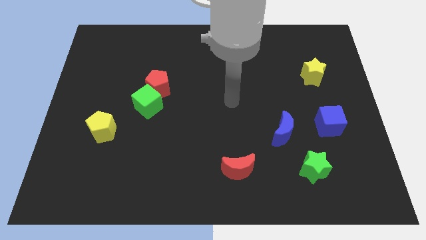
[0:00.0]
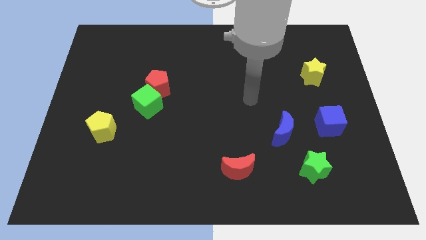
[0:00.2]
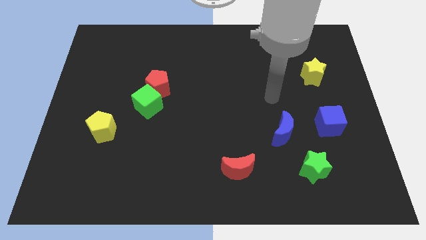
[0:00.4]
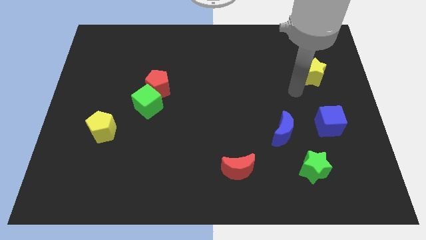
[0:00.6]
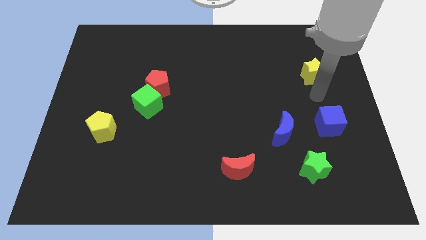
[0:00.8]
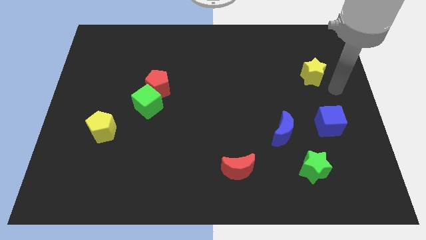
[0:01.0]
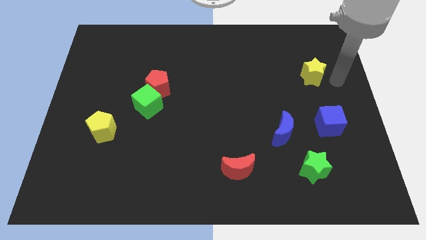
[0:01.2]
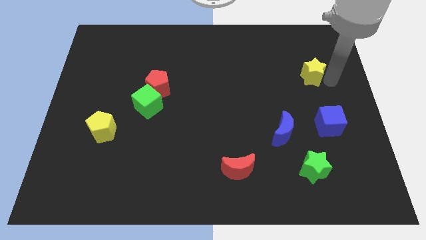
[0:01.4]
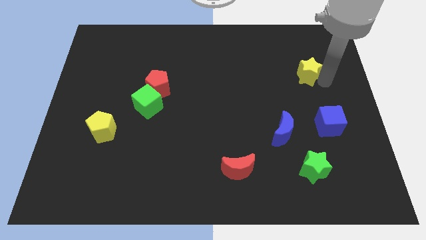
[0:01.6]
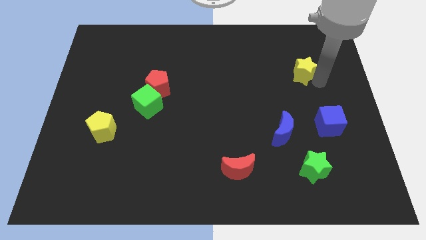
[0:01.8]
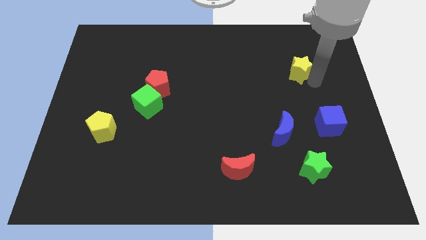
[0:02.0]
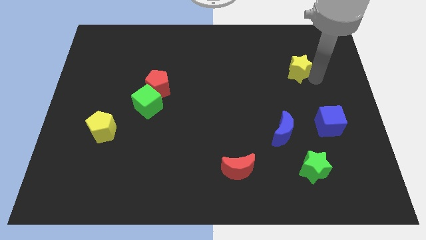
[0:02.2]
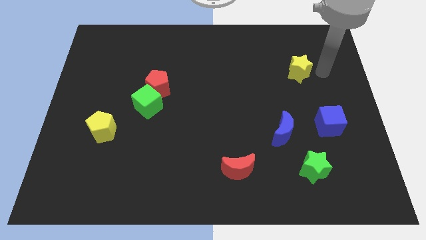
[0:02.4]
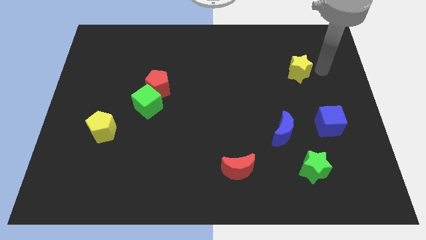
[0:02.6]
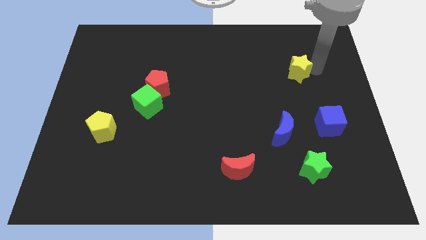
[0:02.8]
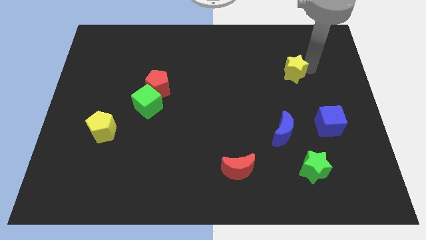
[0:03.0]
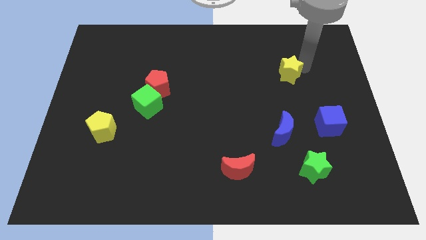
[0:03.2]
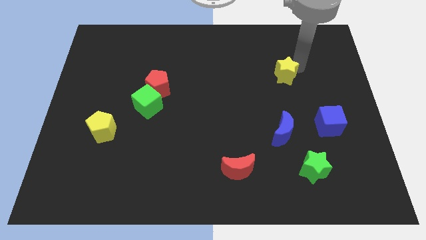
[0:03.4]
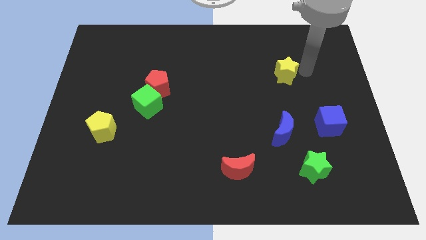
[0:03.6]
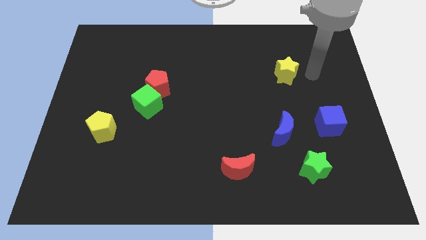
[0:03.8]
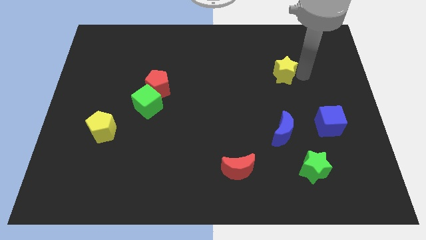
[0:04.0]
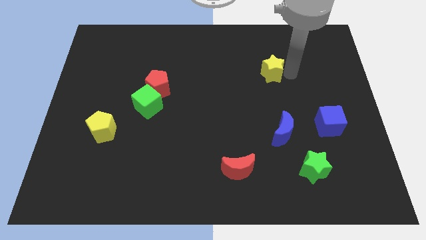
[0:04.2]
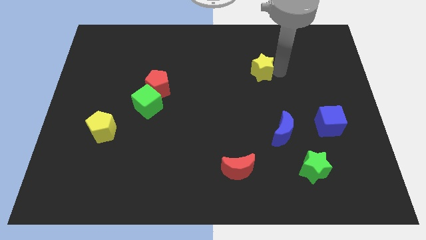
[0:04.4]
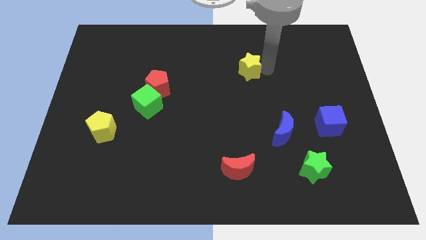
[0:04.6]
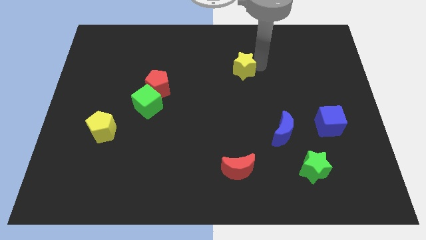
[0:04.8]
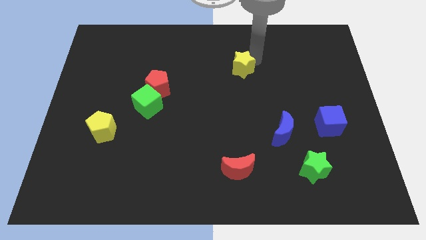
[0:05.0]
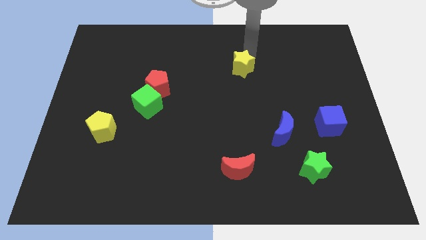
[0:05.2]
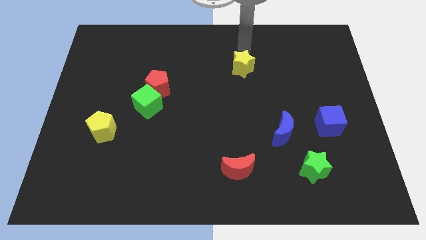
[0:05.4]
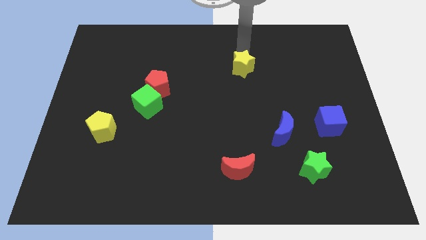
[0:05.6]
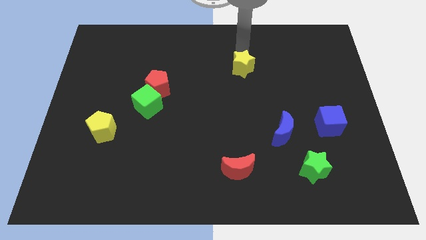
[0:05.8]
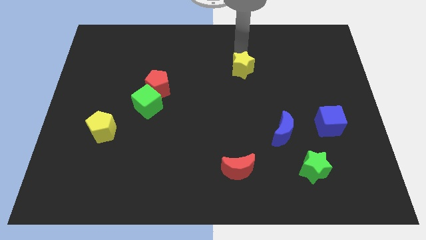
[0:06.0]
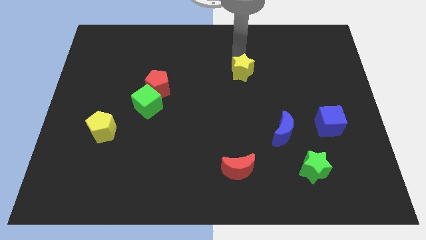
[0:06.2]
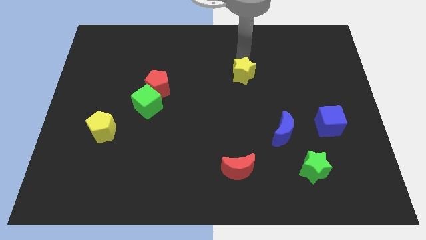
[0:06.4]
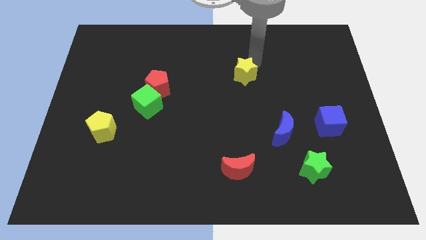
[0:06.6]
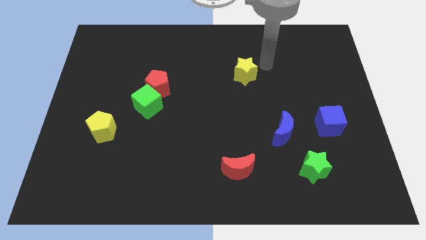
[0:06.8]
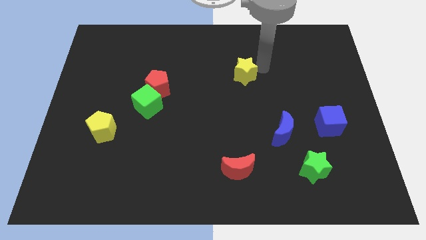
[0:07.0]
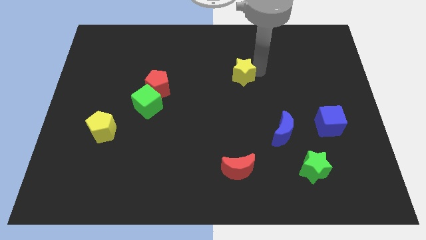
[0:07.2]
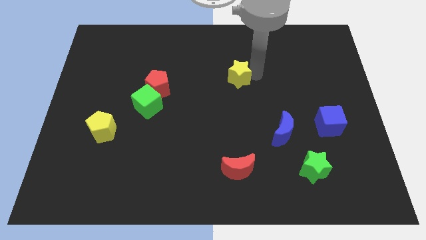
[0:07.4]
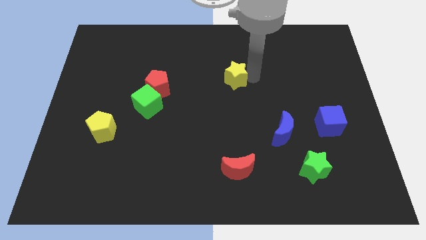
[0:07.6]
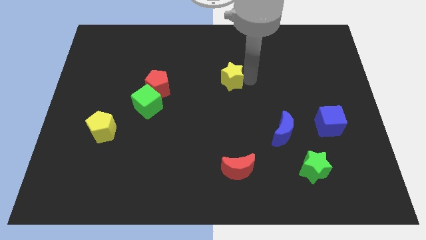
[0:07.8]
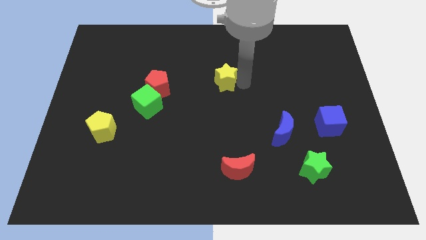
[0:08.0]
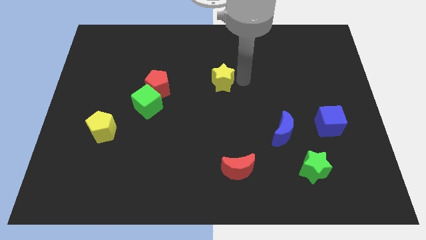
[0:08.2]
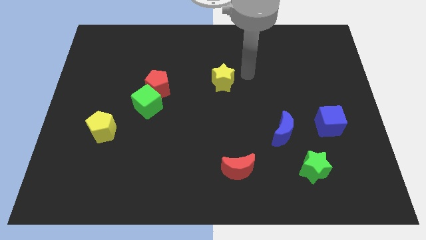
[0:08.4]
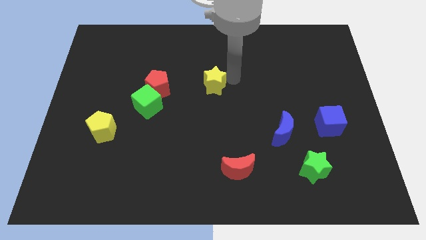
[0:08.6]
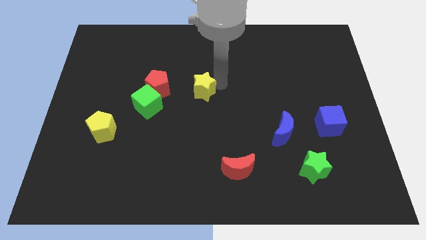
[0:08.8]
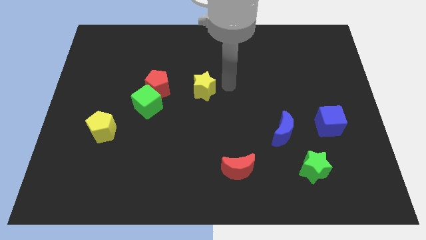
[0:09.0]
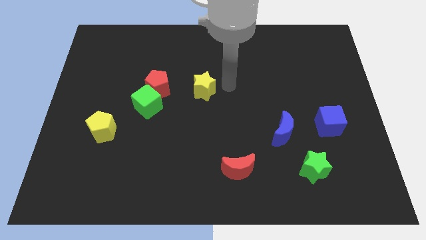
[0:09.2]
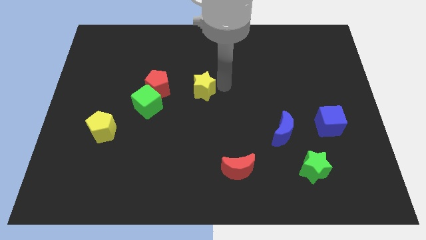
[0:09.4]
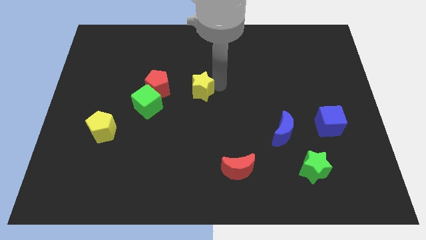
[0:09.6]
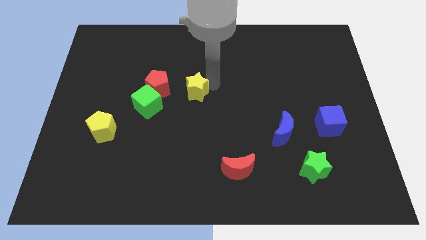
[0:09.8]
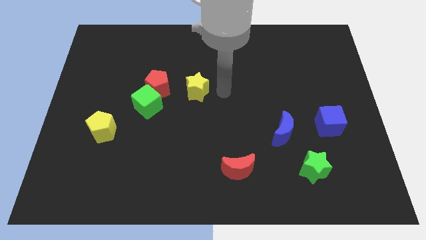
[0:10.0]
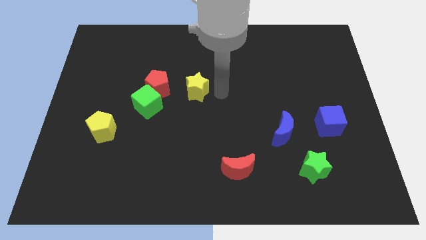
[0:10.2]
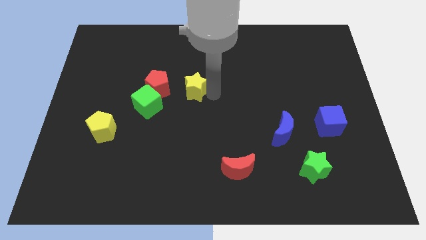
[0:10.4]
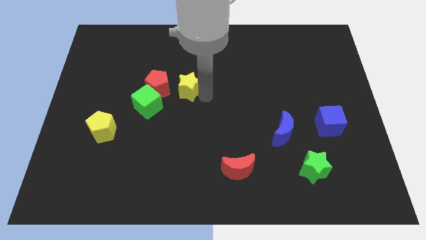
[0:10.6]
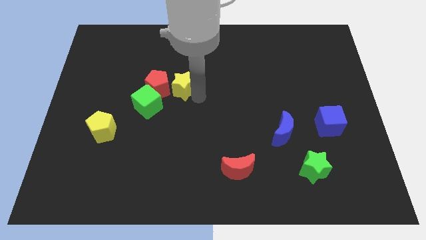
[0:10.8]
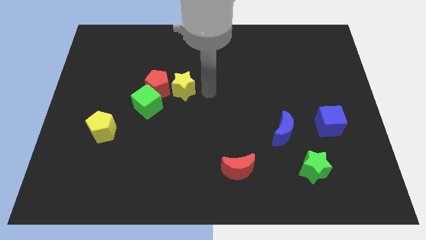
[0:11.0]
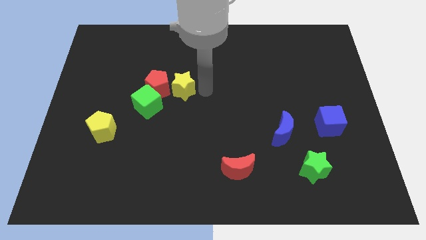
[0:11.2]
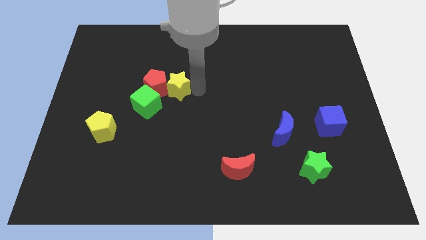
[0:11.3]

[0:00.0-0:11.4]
put the yellow star close to the red pentagon

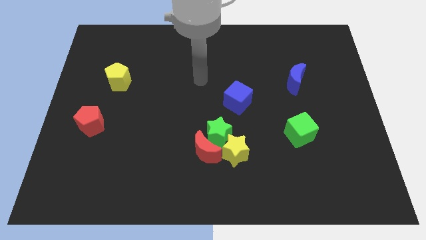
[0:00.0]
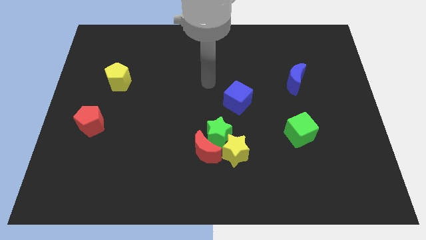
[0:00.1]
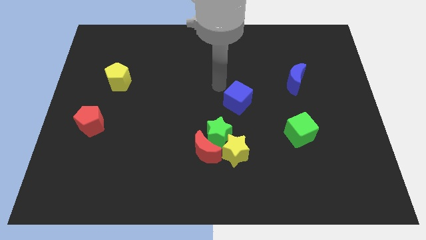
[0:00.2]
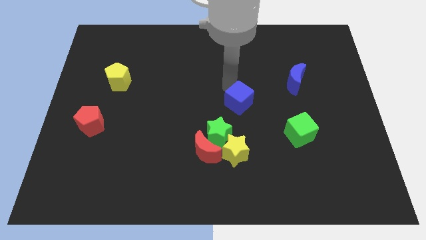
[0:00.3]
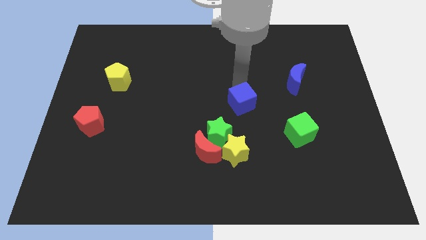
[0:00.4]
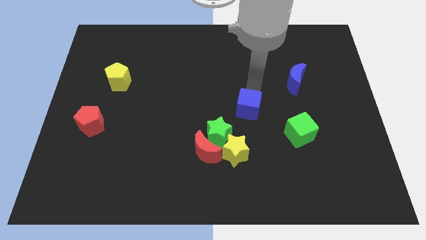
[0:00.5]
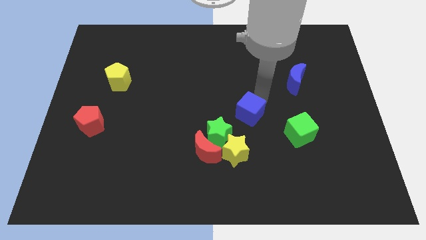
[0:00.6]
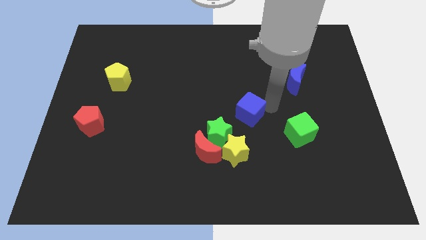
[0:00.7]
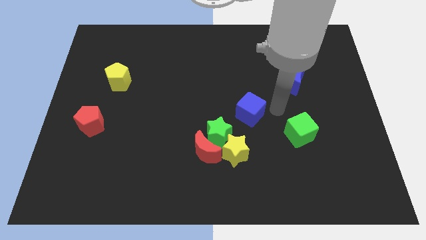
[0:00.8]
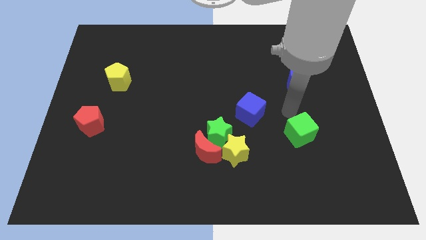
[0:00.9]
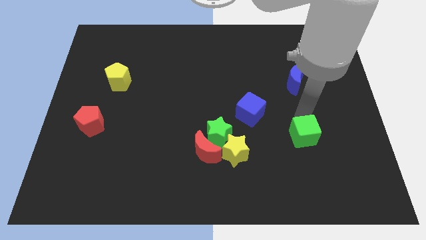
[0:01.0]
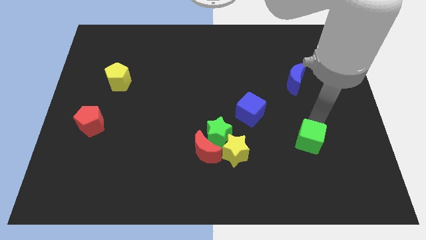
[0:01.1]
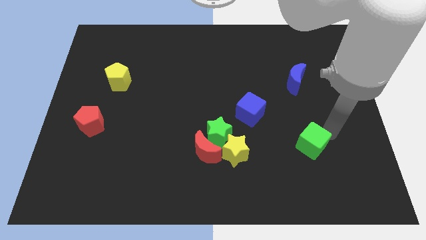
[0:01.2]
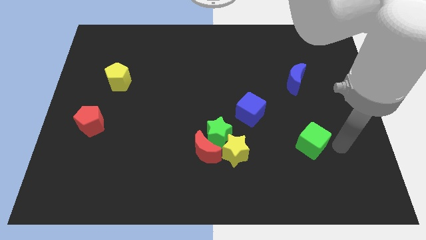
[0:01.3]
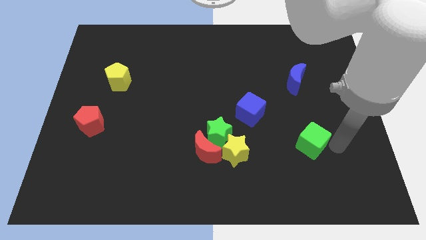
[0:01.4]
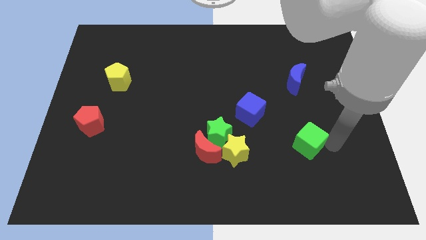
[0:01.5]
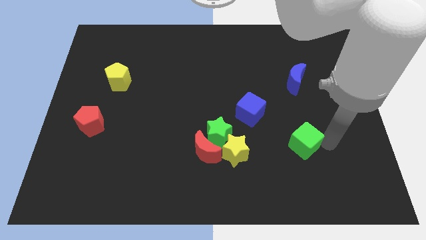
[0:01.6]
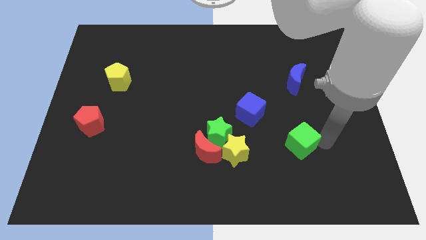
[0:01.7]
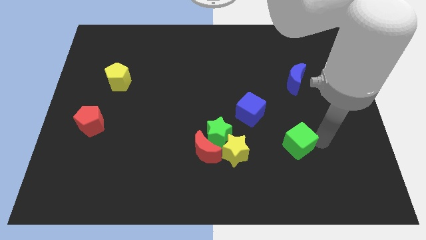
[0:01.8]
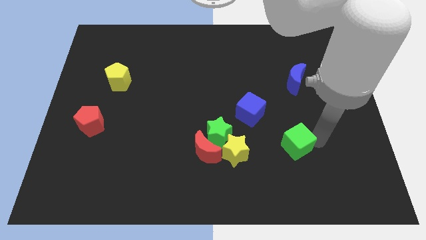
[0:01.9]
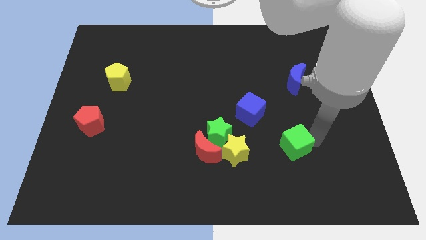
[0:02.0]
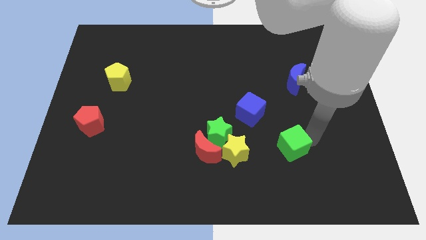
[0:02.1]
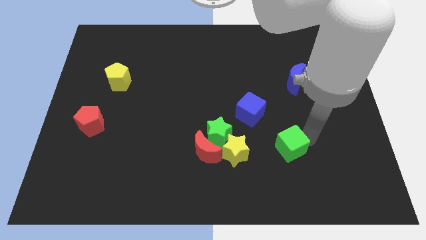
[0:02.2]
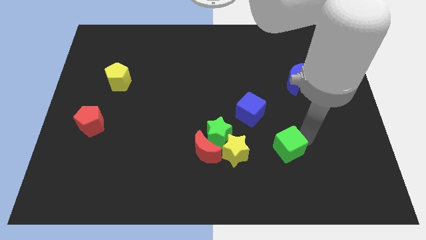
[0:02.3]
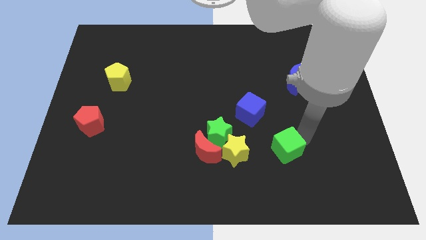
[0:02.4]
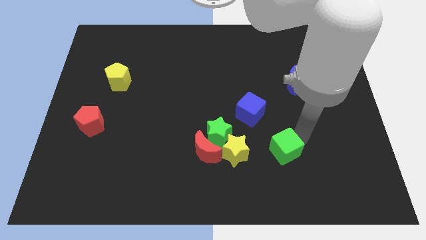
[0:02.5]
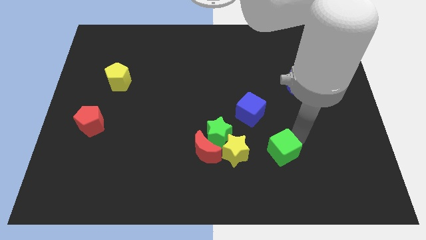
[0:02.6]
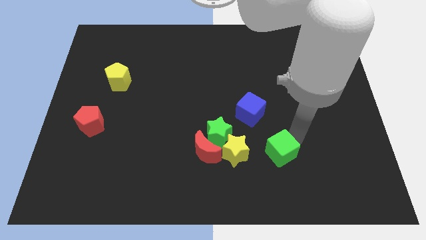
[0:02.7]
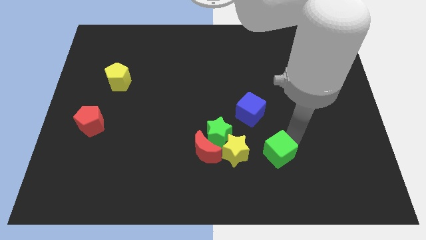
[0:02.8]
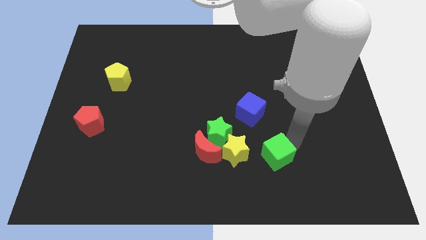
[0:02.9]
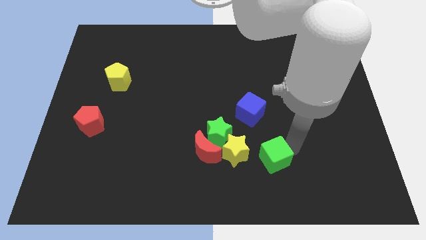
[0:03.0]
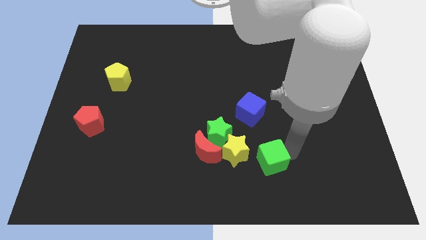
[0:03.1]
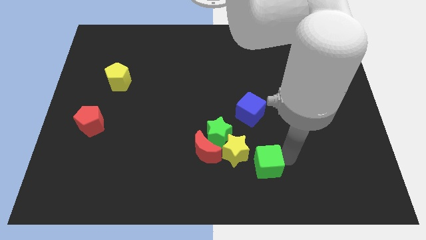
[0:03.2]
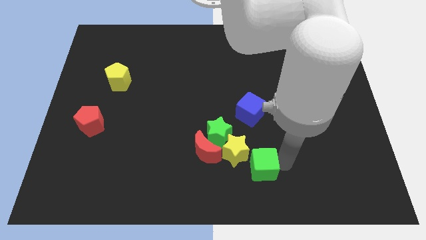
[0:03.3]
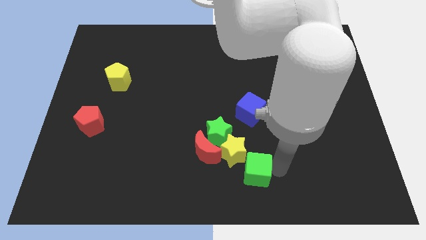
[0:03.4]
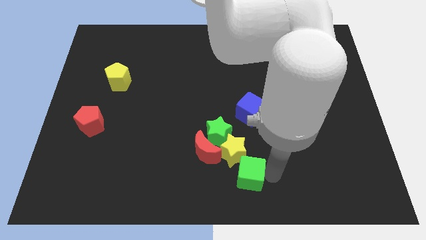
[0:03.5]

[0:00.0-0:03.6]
push the green cube towards the yellow star
